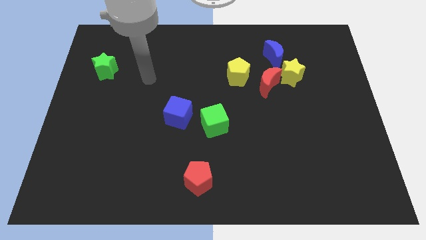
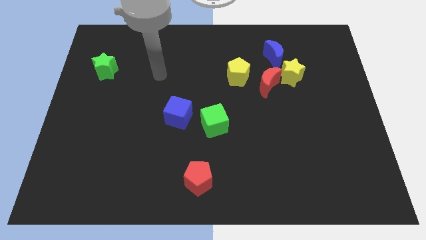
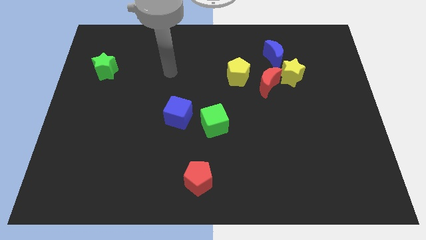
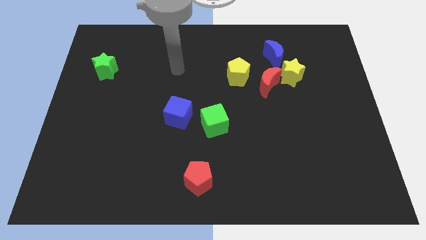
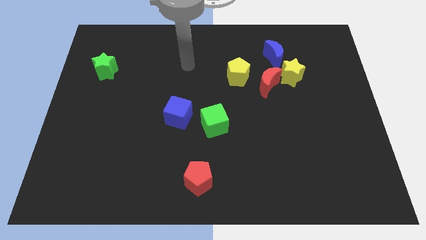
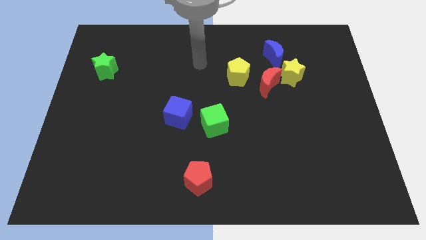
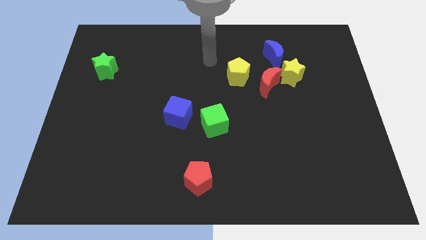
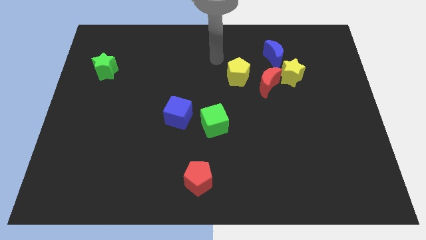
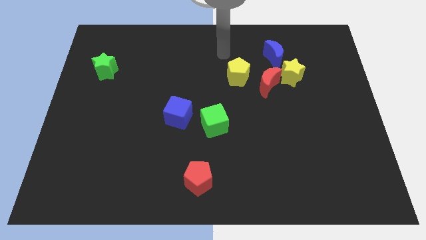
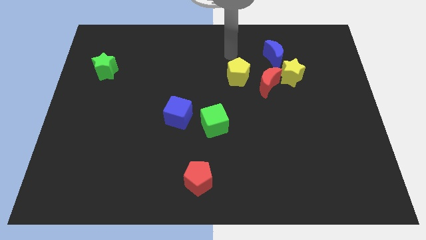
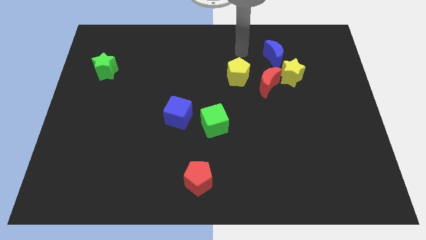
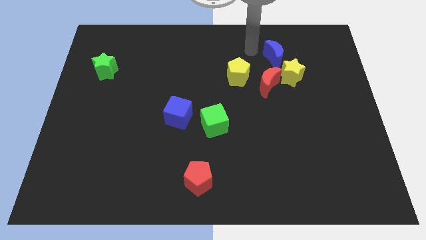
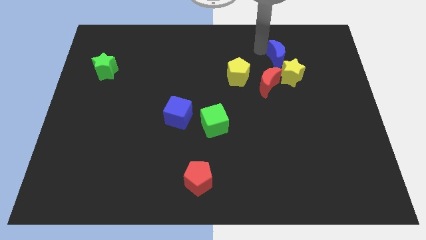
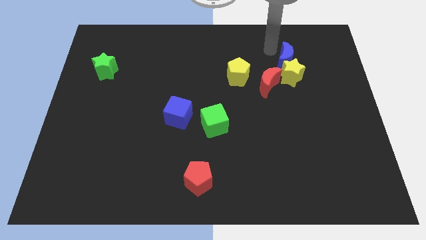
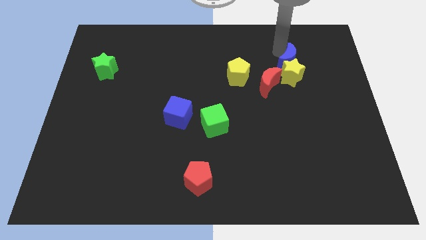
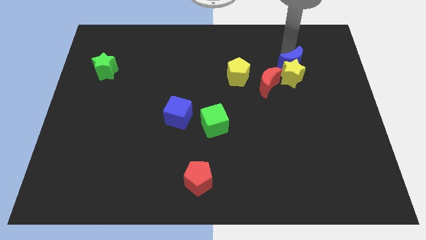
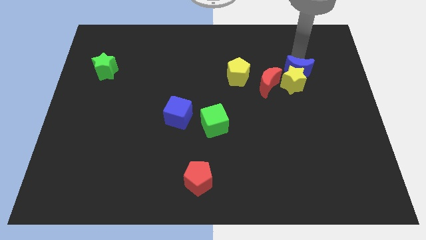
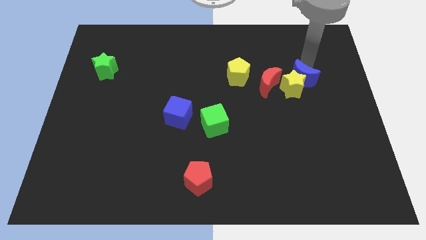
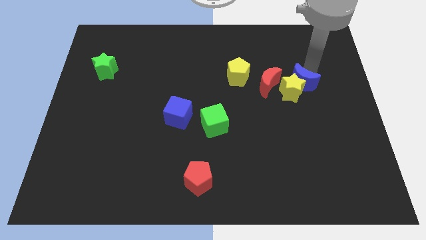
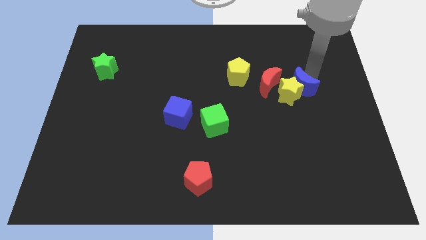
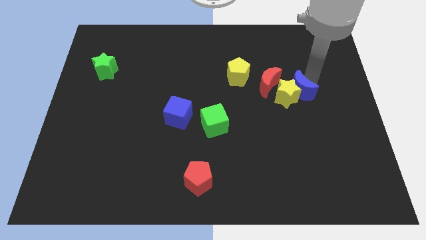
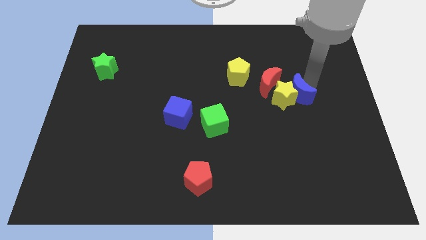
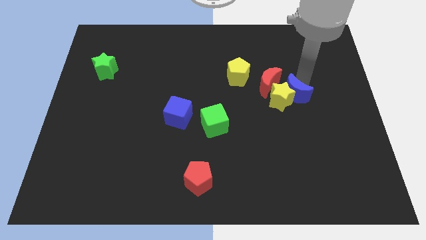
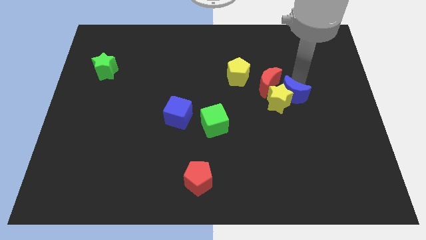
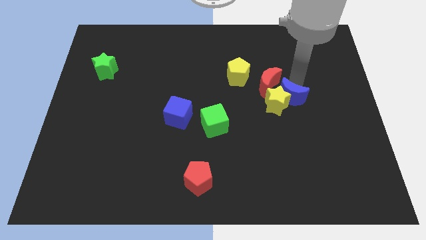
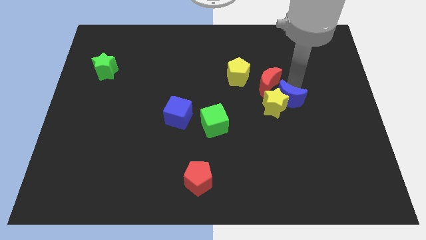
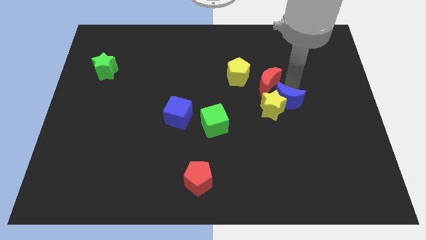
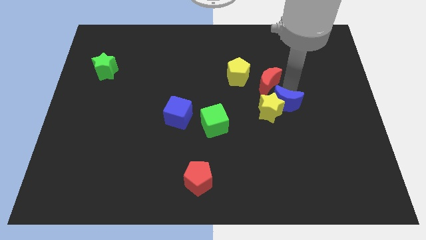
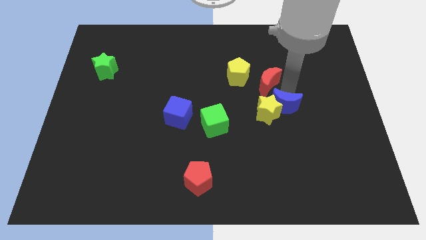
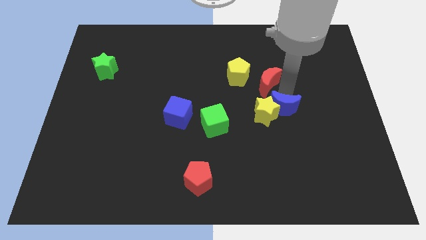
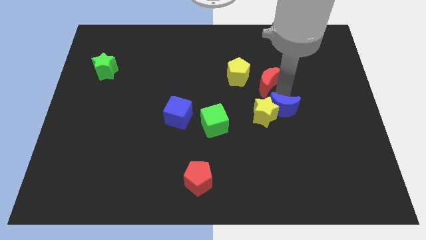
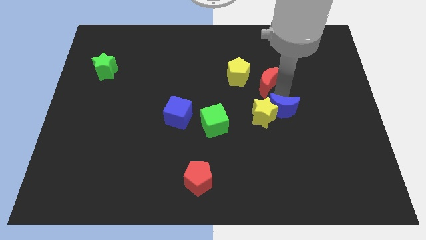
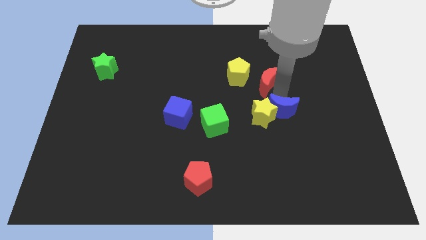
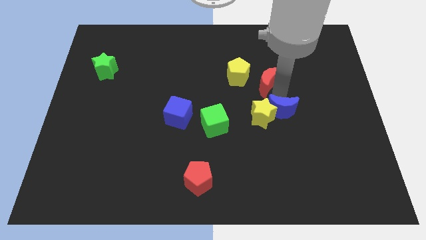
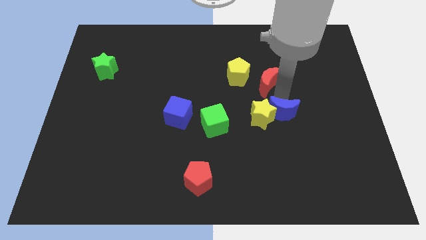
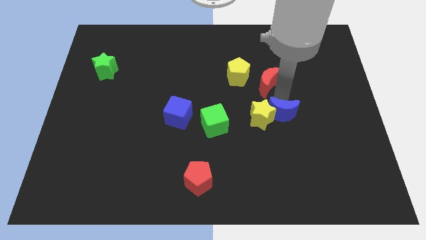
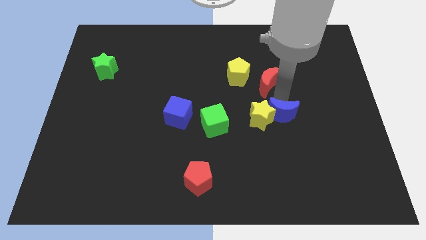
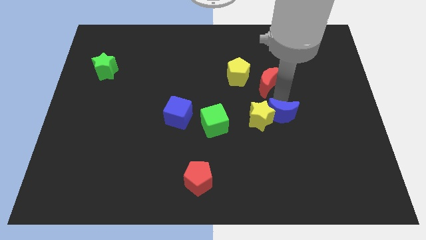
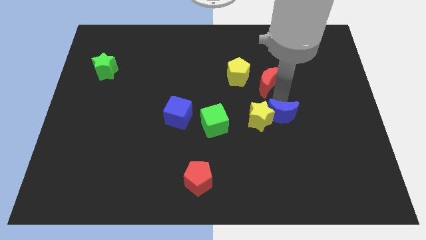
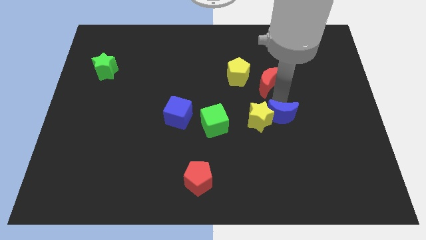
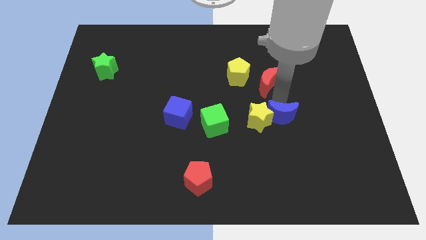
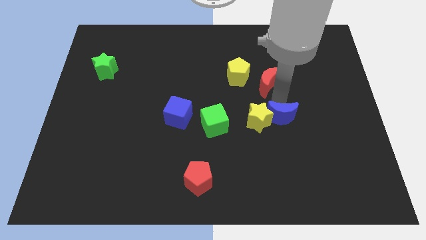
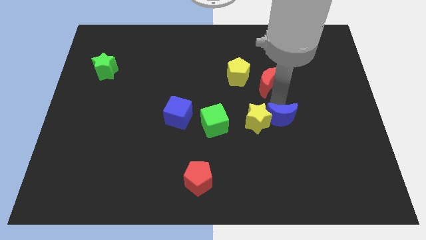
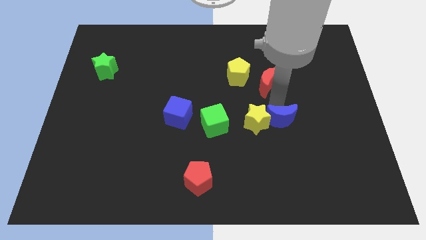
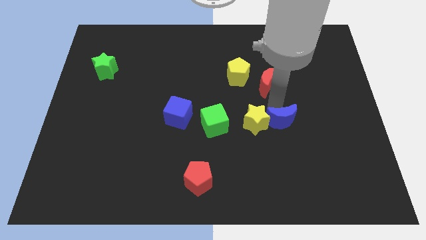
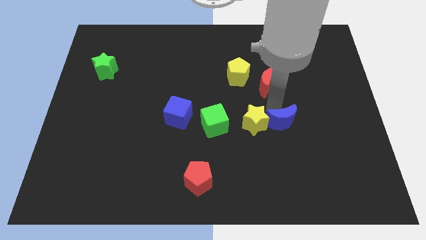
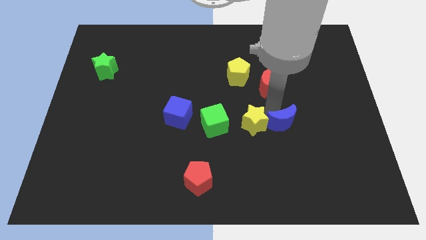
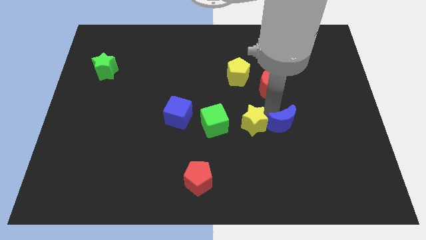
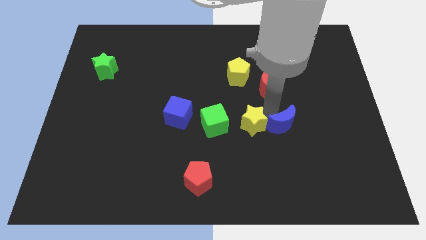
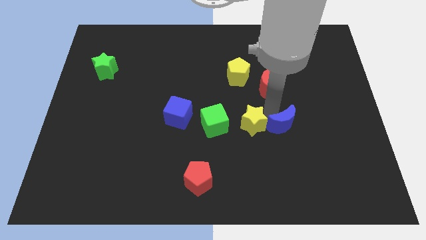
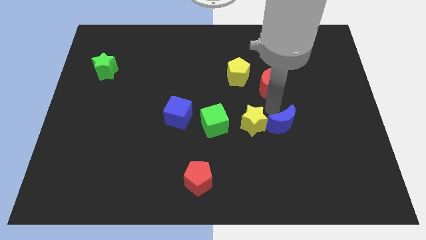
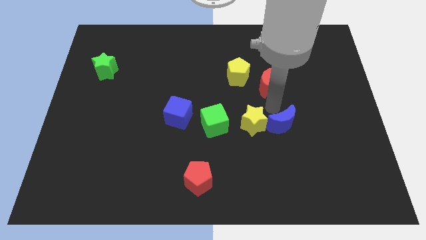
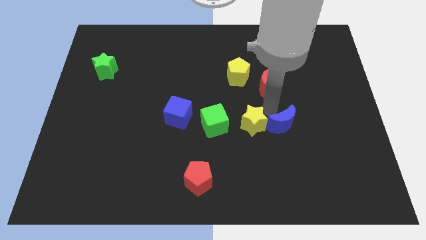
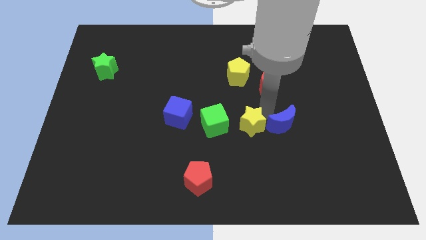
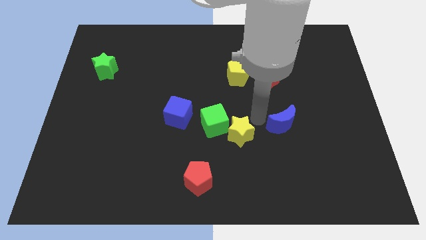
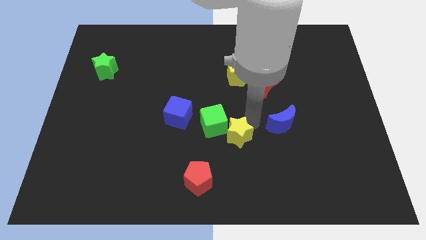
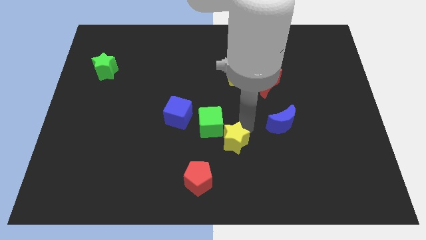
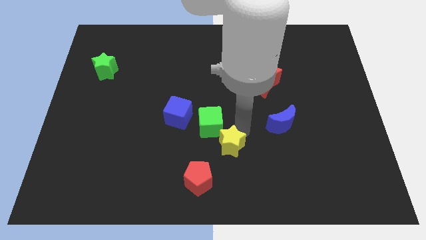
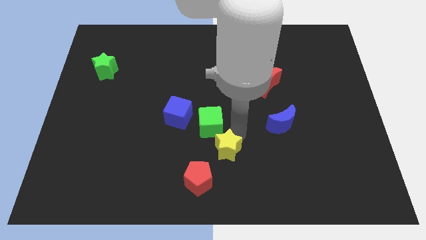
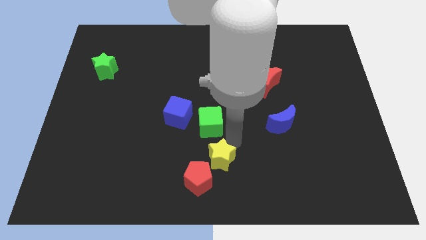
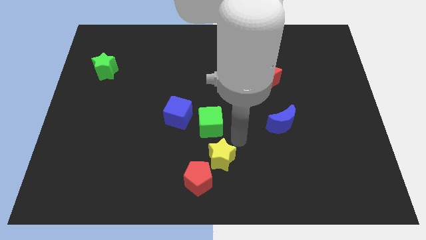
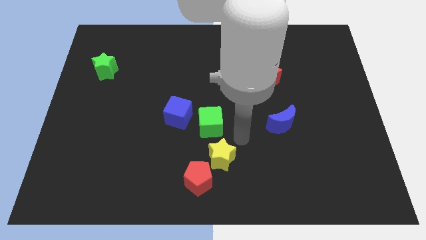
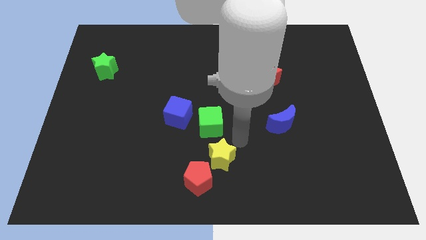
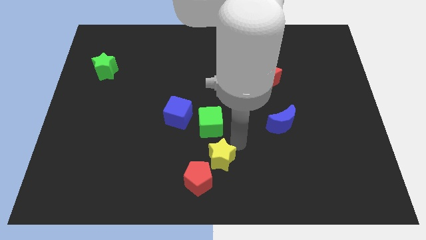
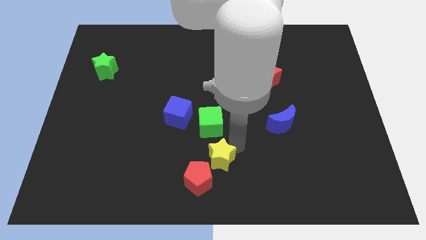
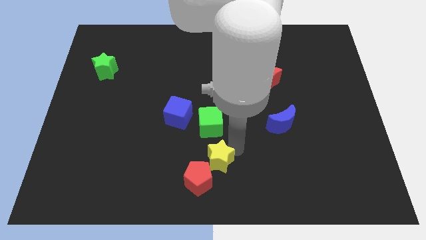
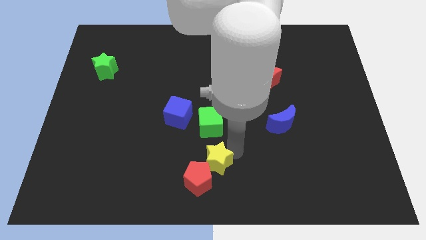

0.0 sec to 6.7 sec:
move the yellow star to the red pentagon

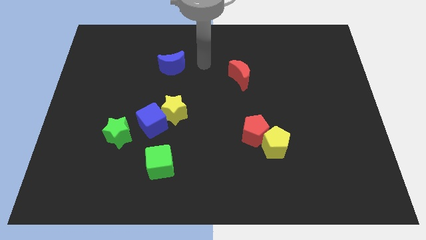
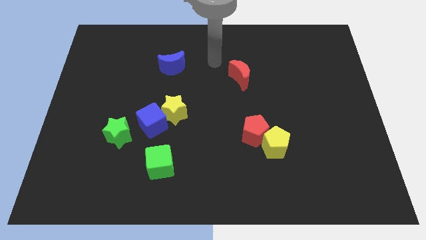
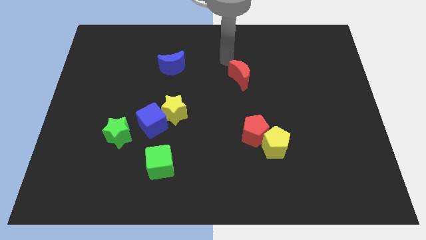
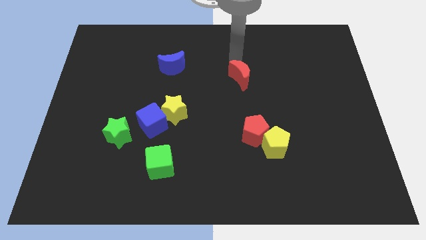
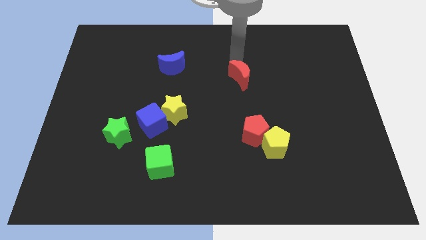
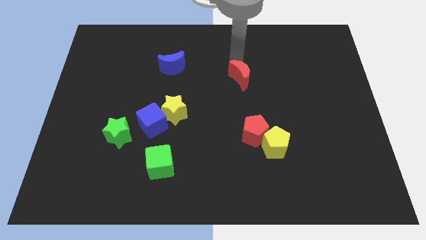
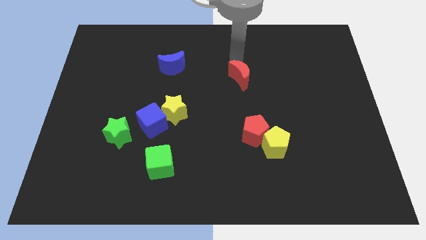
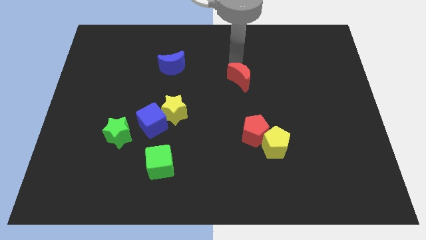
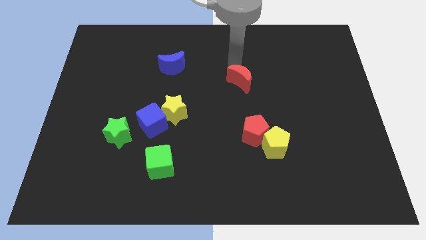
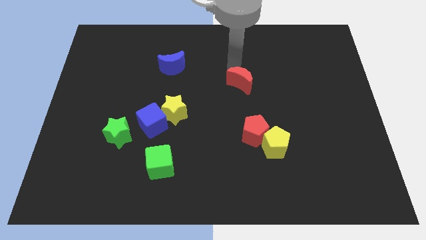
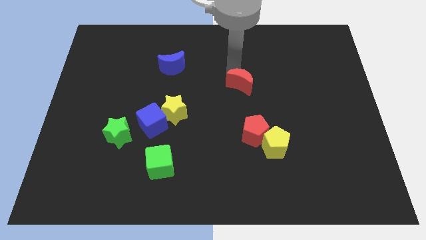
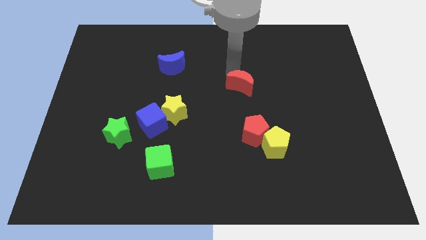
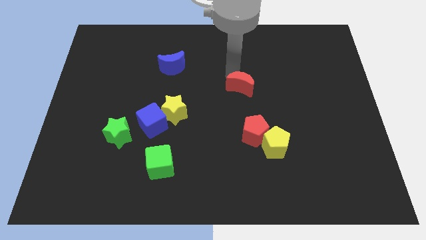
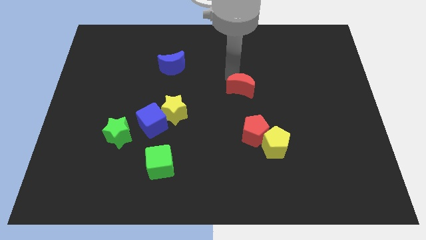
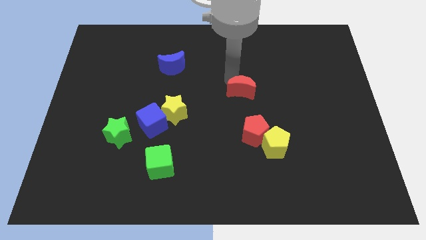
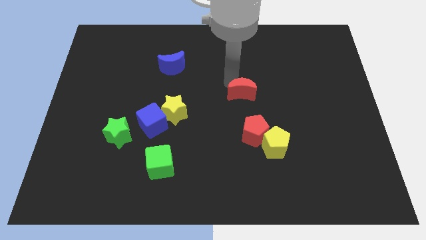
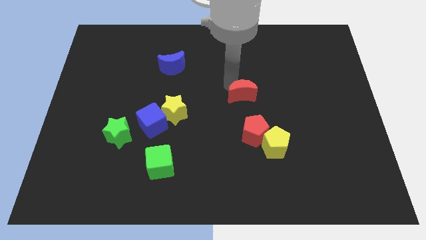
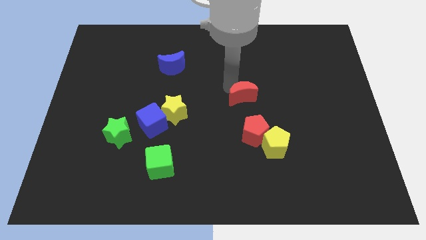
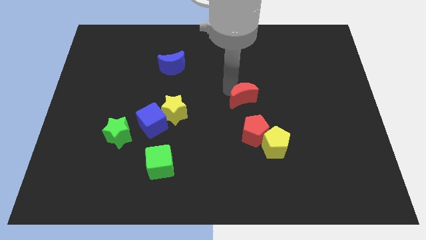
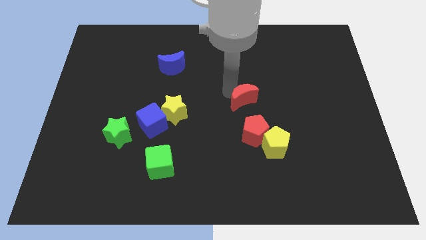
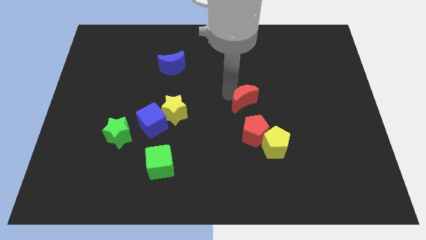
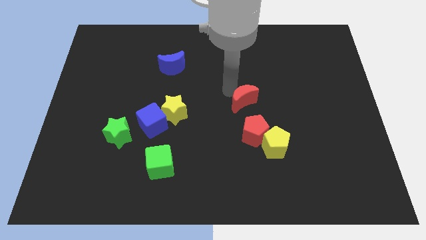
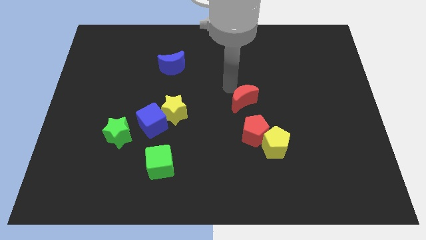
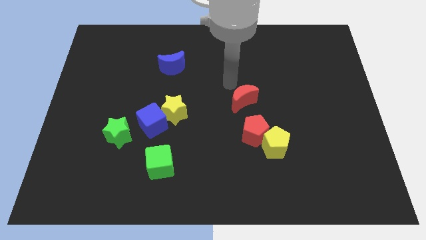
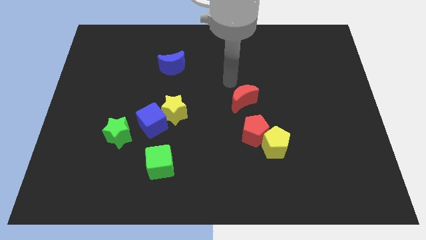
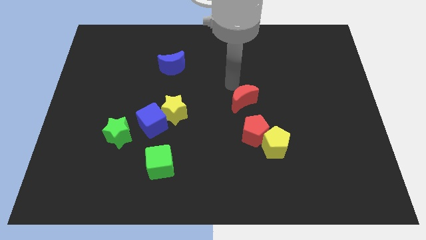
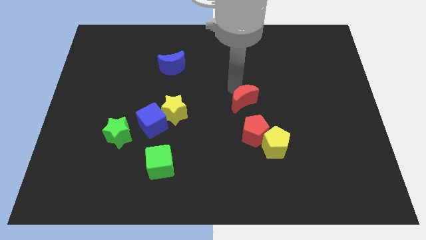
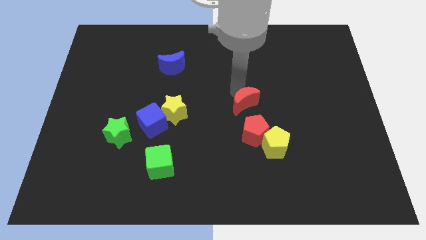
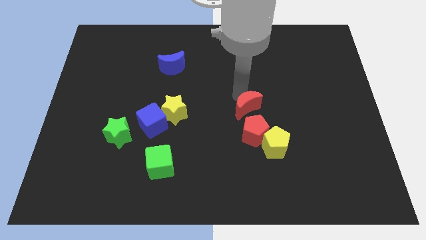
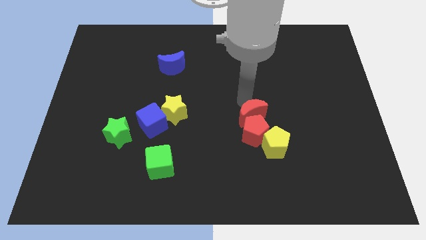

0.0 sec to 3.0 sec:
move the red moon to the red pentagon
